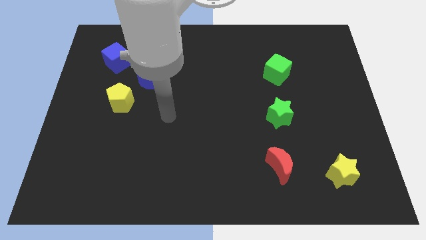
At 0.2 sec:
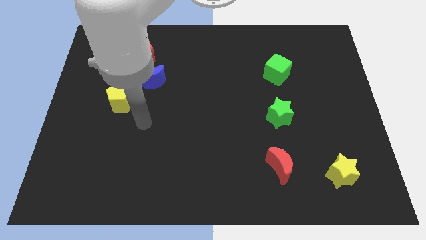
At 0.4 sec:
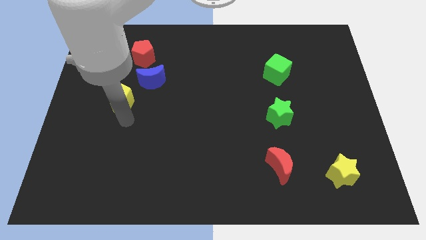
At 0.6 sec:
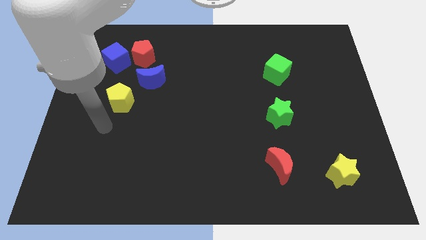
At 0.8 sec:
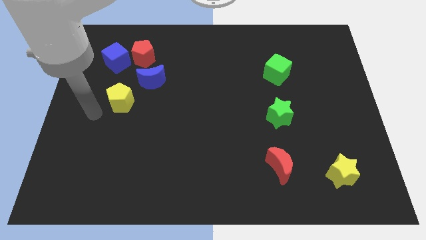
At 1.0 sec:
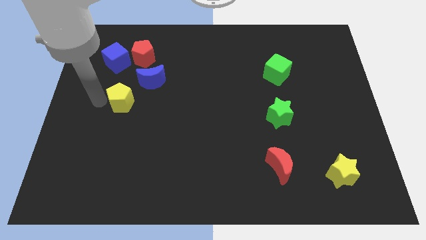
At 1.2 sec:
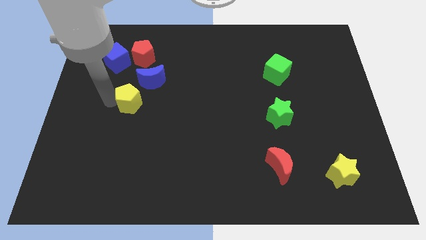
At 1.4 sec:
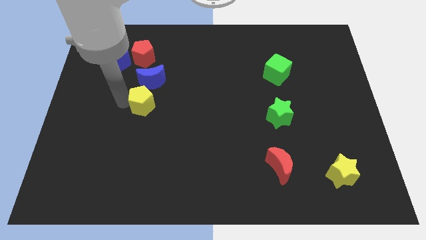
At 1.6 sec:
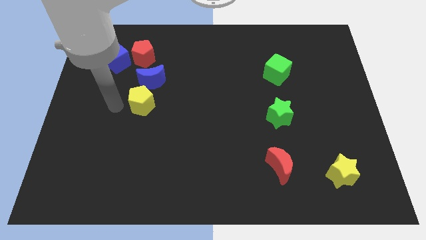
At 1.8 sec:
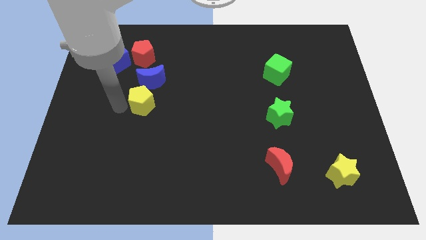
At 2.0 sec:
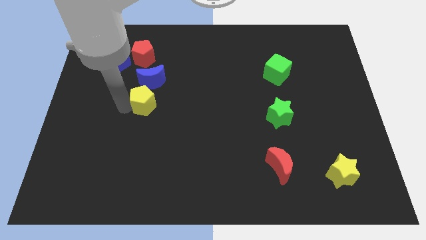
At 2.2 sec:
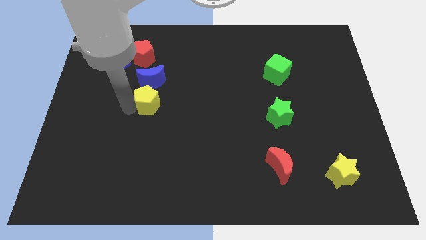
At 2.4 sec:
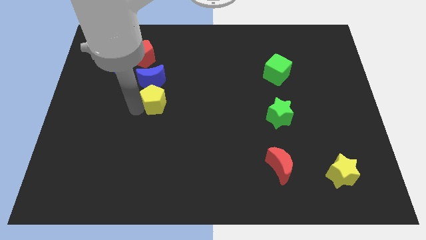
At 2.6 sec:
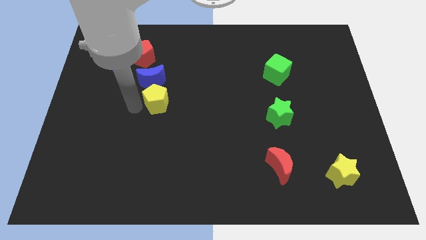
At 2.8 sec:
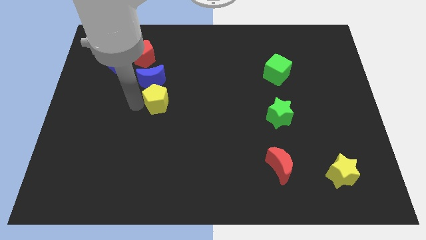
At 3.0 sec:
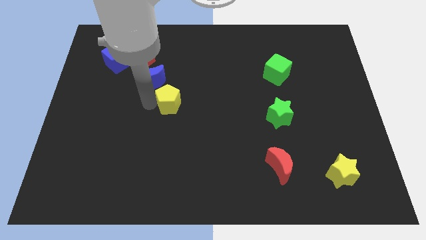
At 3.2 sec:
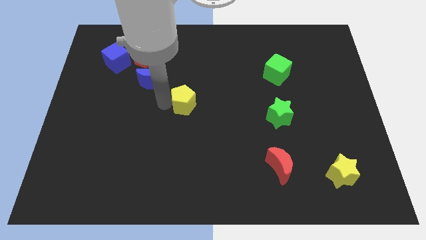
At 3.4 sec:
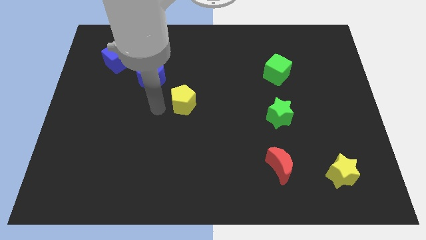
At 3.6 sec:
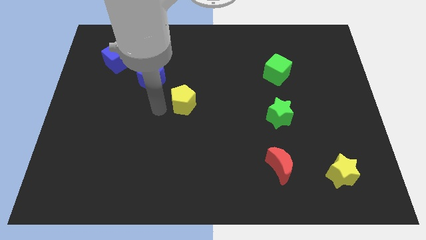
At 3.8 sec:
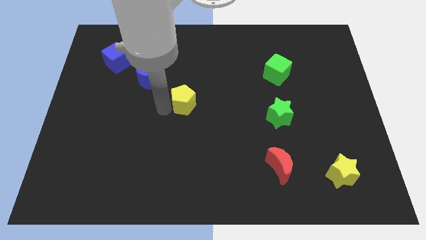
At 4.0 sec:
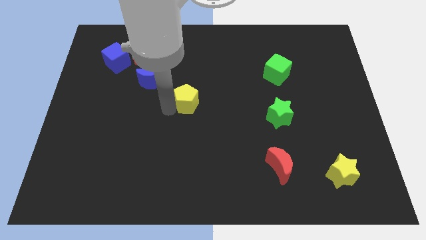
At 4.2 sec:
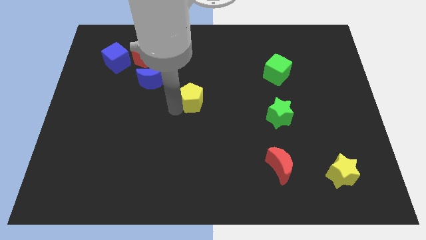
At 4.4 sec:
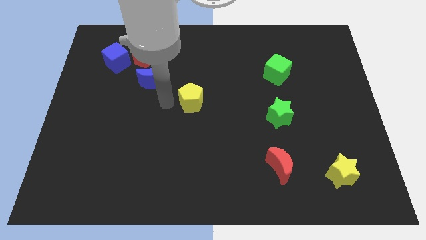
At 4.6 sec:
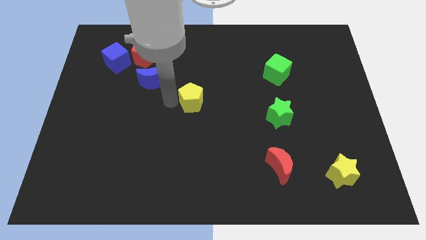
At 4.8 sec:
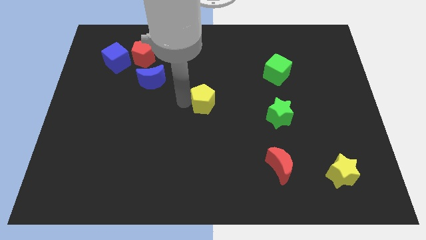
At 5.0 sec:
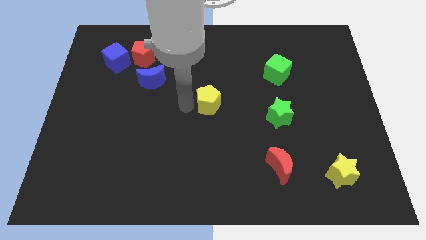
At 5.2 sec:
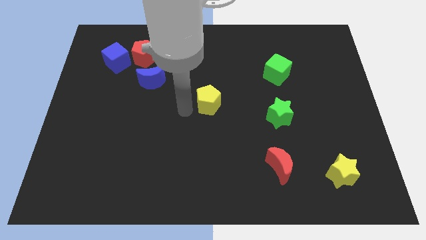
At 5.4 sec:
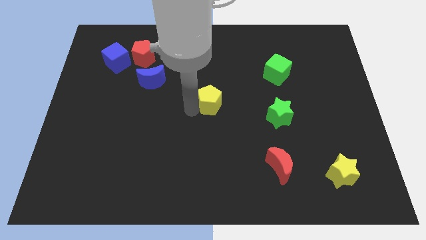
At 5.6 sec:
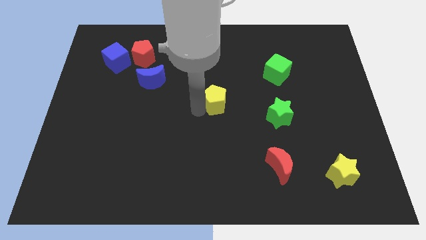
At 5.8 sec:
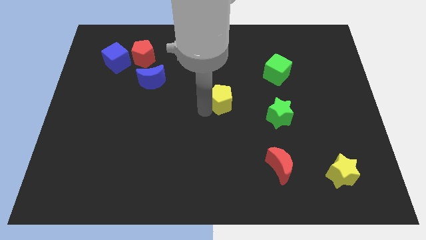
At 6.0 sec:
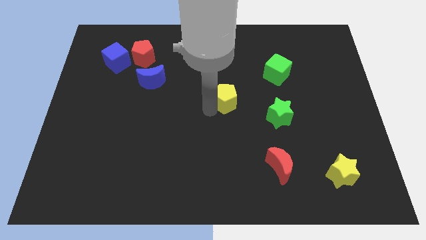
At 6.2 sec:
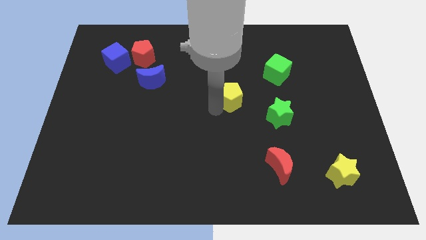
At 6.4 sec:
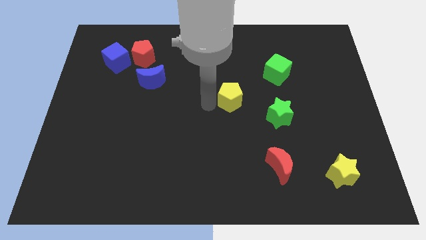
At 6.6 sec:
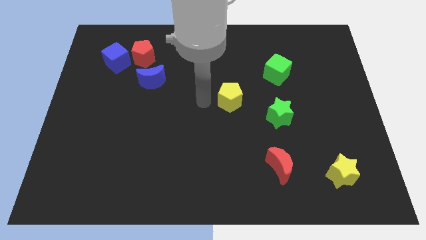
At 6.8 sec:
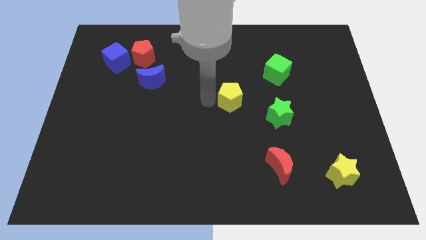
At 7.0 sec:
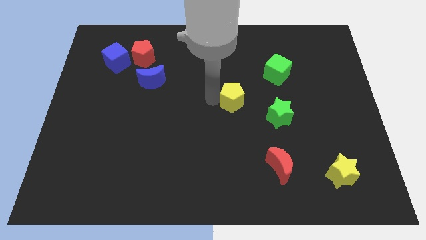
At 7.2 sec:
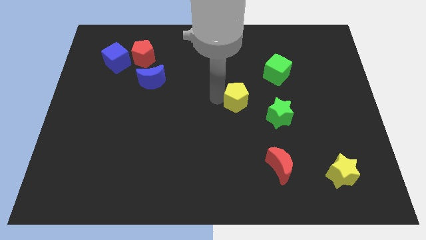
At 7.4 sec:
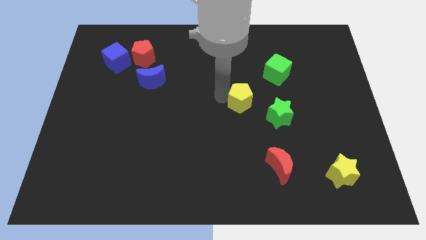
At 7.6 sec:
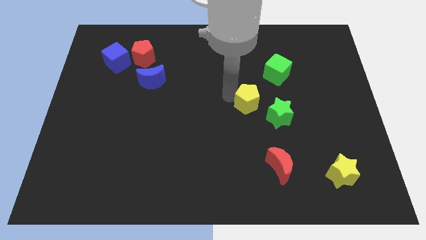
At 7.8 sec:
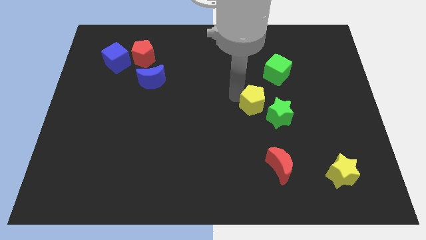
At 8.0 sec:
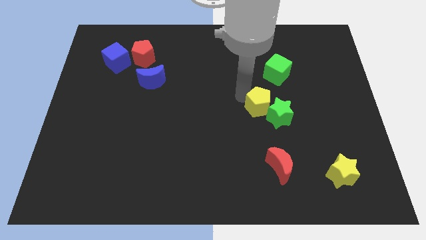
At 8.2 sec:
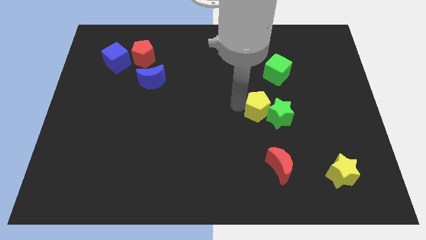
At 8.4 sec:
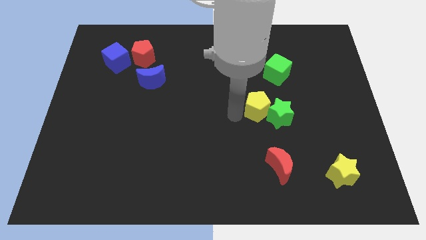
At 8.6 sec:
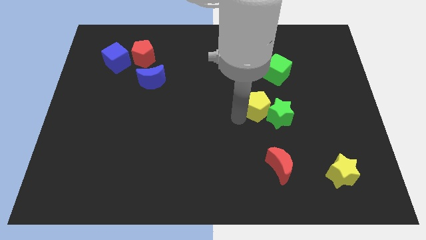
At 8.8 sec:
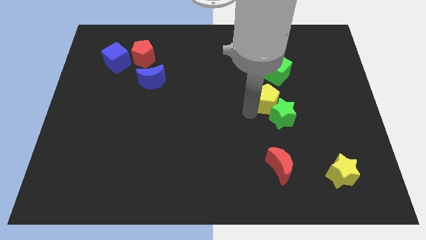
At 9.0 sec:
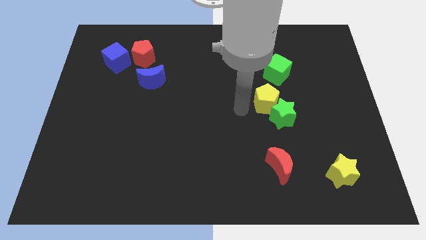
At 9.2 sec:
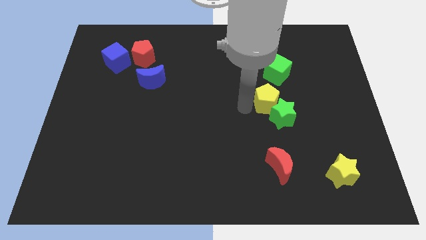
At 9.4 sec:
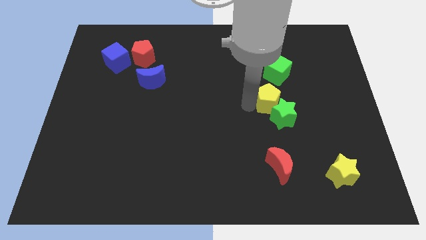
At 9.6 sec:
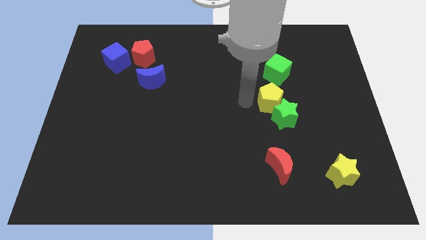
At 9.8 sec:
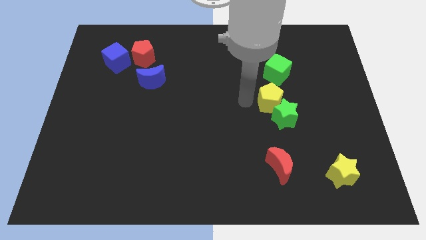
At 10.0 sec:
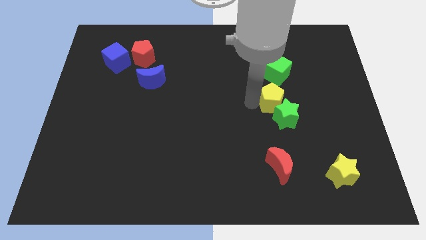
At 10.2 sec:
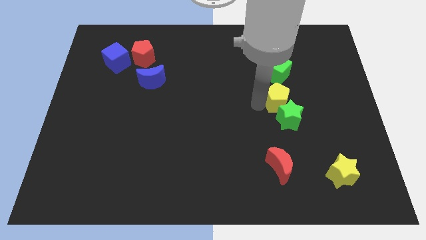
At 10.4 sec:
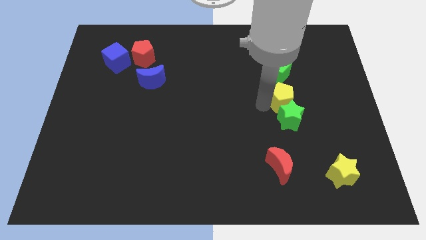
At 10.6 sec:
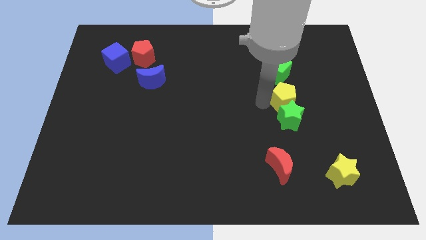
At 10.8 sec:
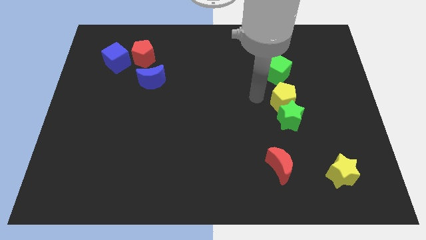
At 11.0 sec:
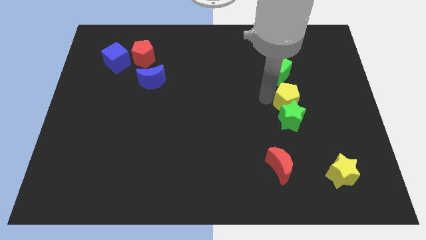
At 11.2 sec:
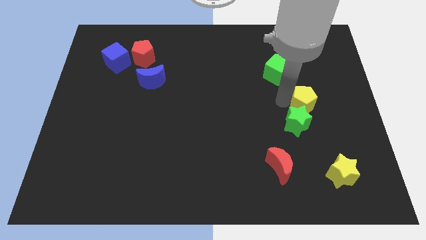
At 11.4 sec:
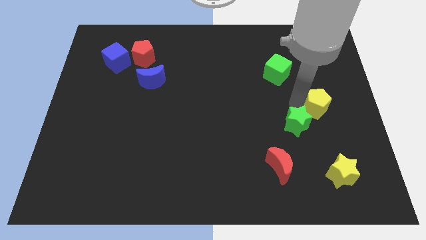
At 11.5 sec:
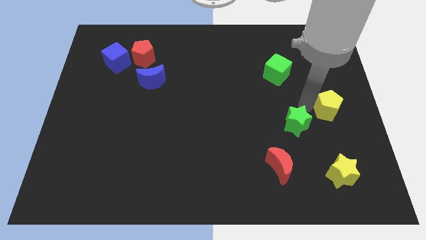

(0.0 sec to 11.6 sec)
slide the yellow pentagon to the right side

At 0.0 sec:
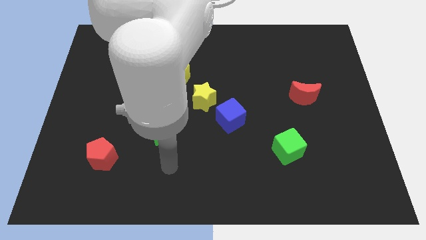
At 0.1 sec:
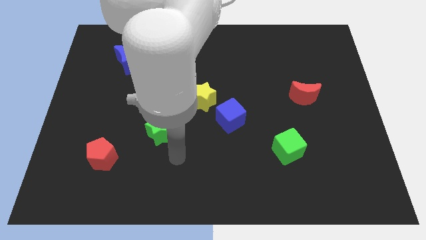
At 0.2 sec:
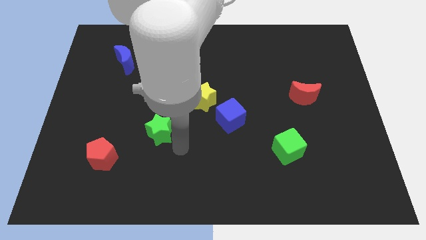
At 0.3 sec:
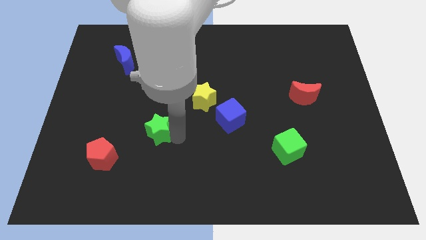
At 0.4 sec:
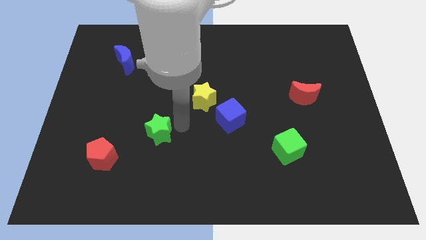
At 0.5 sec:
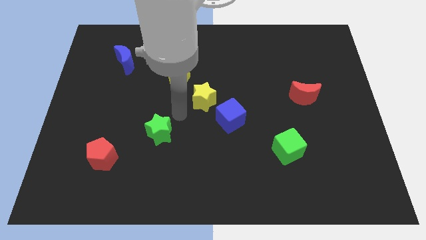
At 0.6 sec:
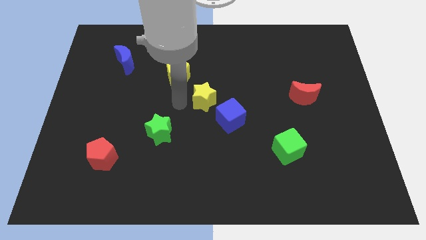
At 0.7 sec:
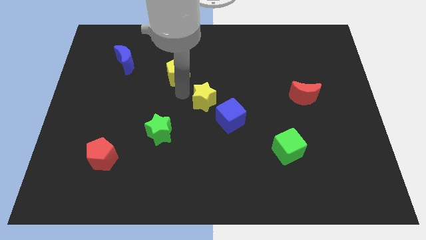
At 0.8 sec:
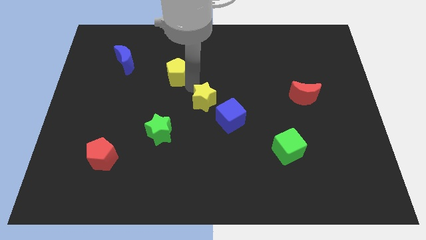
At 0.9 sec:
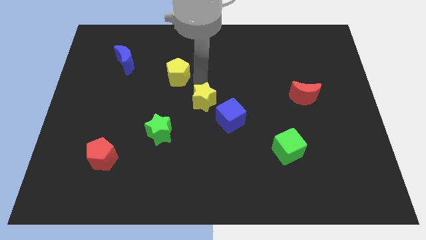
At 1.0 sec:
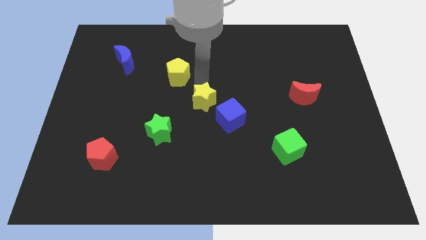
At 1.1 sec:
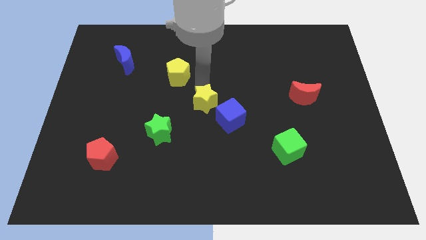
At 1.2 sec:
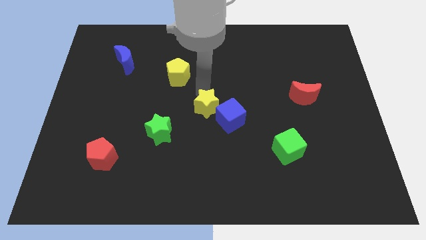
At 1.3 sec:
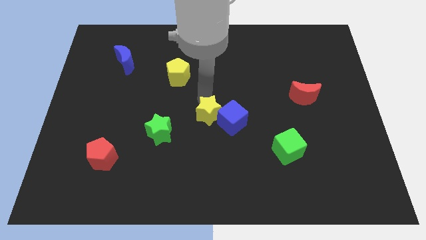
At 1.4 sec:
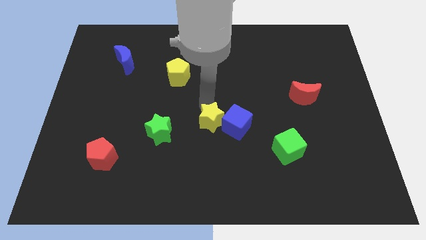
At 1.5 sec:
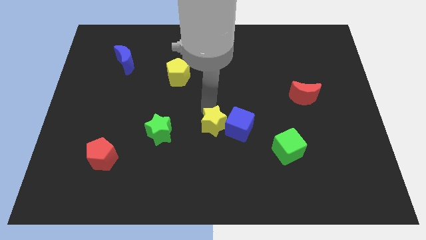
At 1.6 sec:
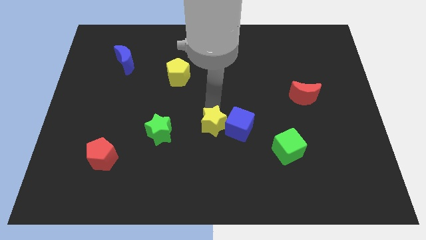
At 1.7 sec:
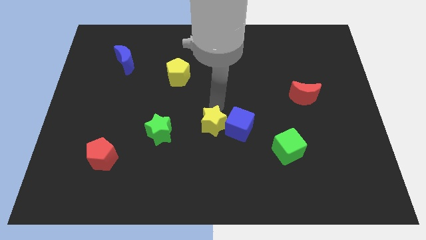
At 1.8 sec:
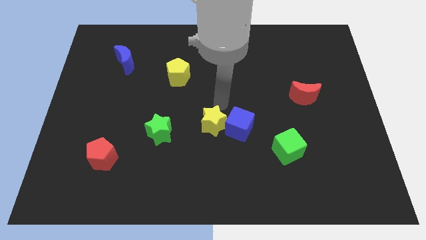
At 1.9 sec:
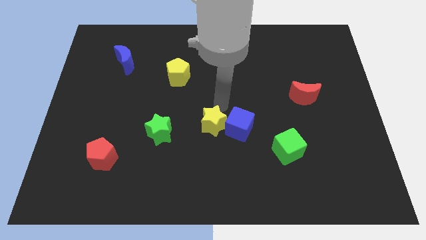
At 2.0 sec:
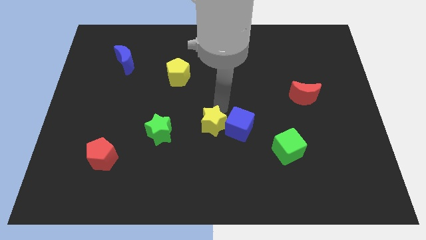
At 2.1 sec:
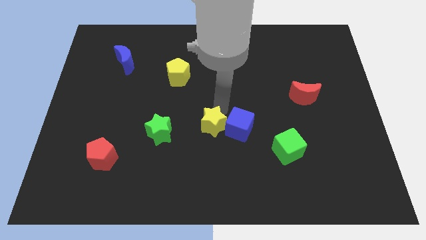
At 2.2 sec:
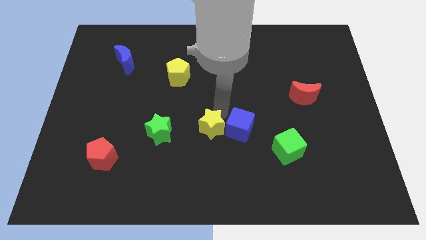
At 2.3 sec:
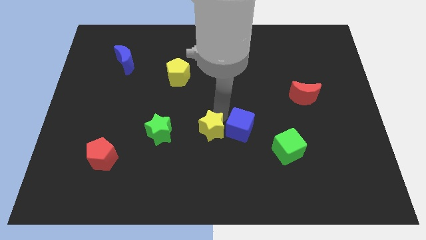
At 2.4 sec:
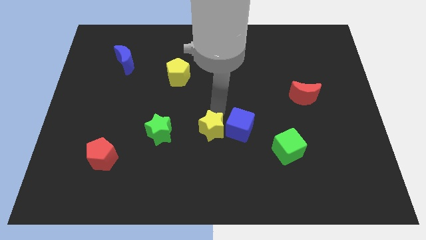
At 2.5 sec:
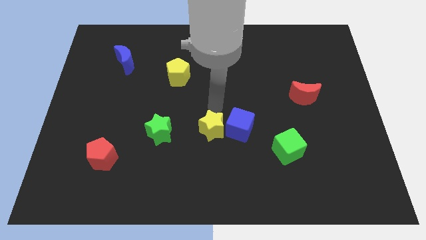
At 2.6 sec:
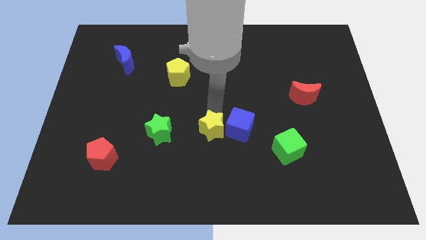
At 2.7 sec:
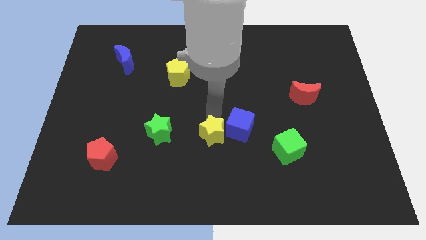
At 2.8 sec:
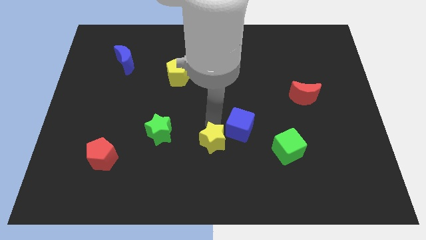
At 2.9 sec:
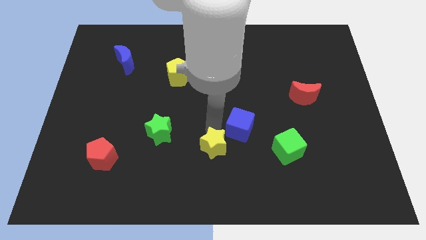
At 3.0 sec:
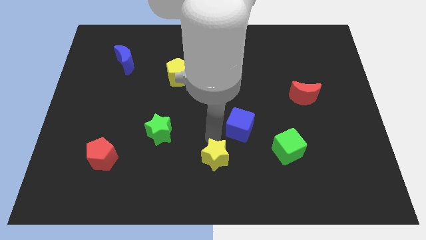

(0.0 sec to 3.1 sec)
push the yellow star to the bottom
